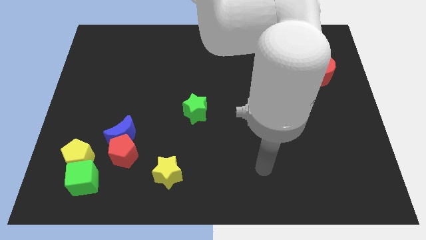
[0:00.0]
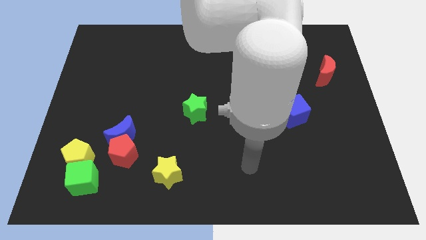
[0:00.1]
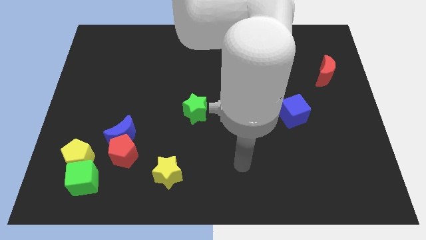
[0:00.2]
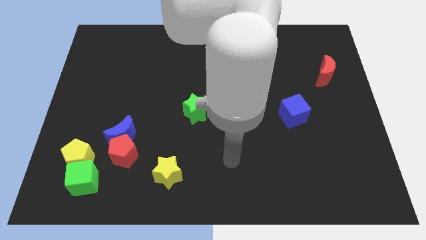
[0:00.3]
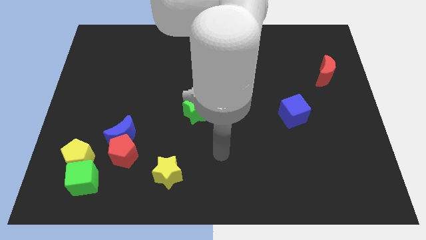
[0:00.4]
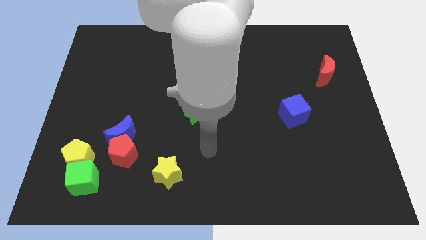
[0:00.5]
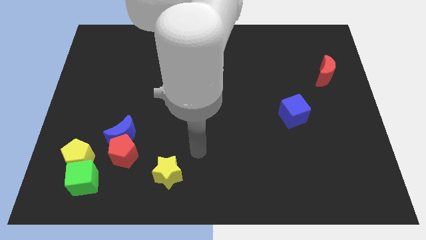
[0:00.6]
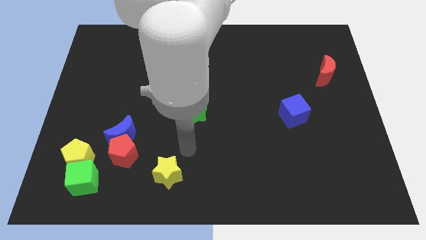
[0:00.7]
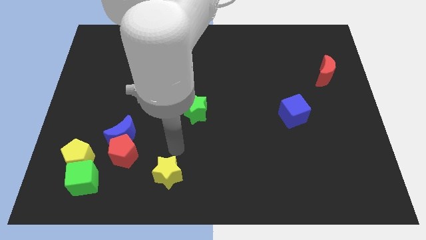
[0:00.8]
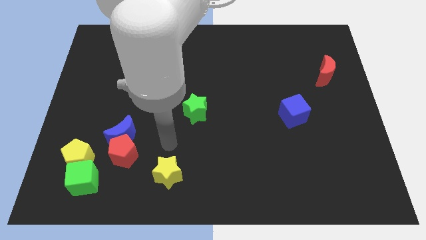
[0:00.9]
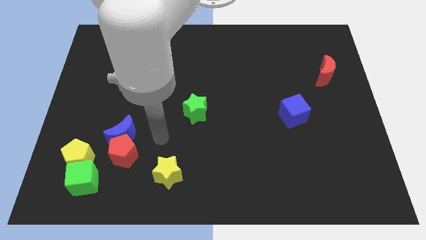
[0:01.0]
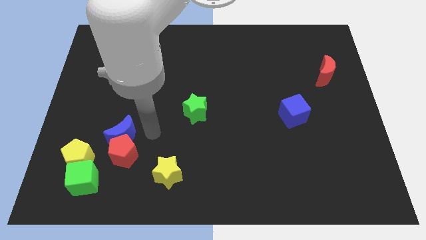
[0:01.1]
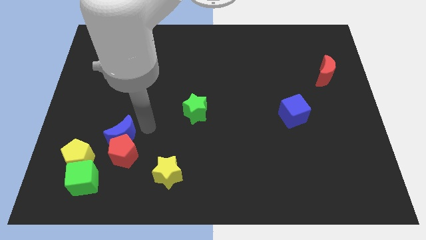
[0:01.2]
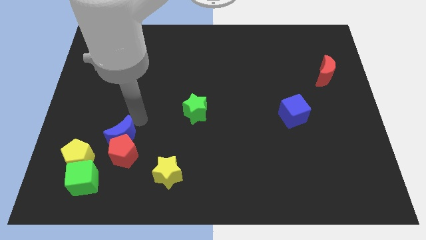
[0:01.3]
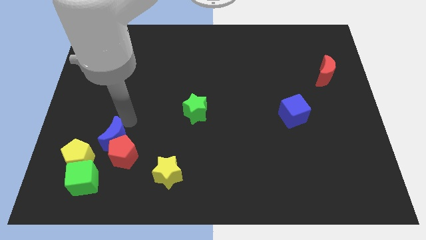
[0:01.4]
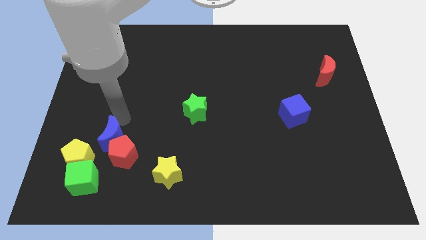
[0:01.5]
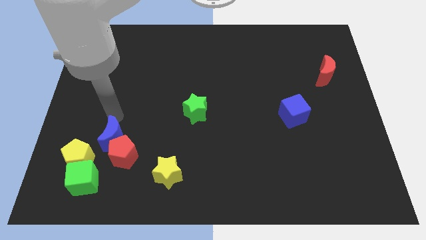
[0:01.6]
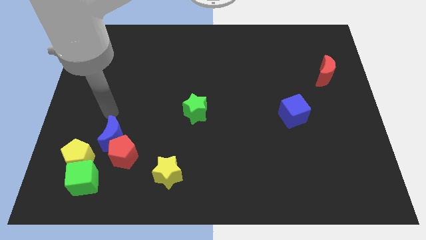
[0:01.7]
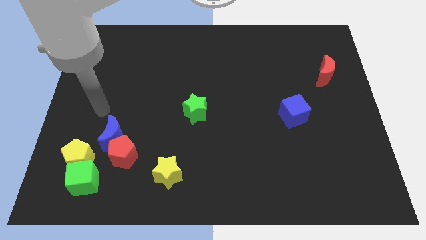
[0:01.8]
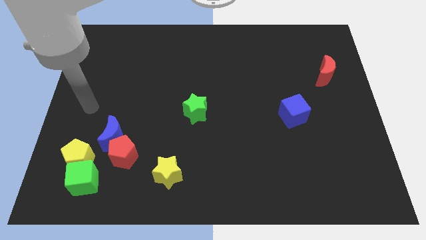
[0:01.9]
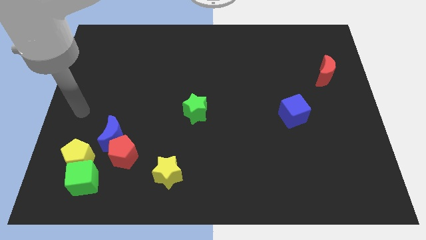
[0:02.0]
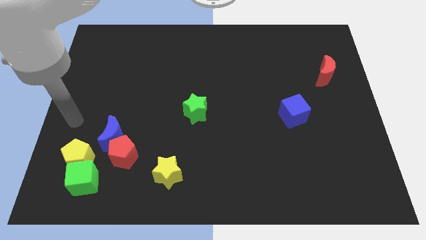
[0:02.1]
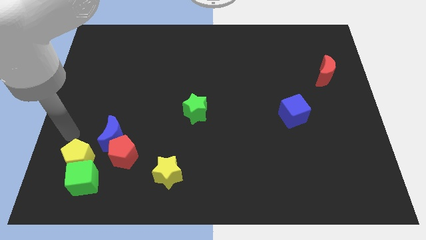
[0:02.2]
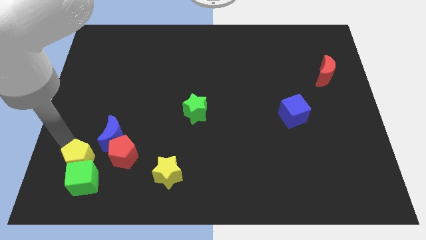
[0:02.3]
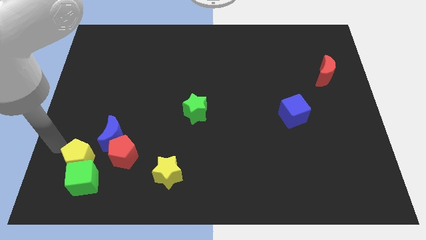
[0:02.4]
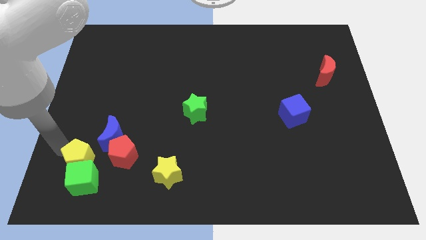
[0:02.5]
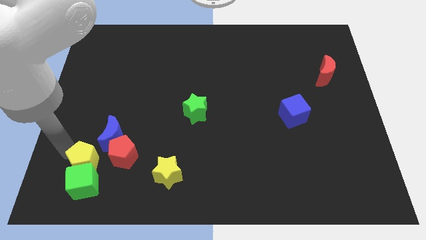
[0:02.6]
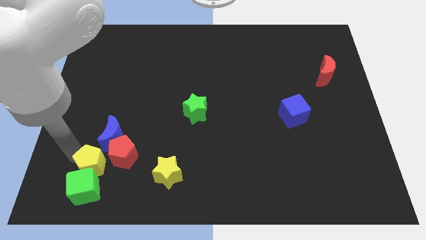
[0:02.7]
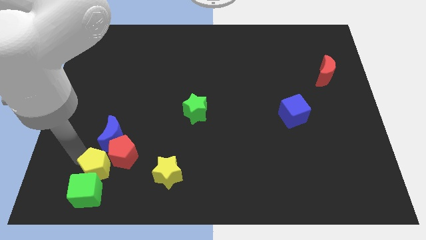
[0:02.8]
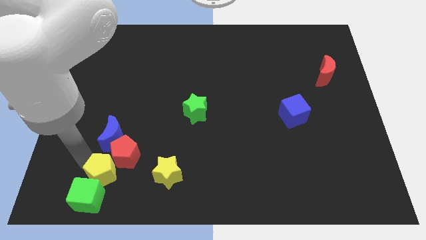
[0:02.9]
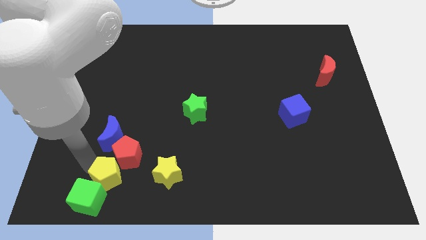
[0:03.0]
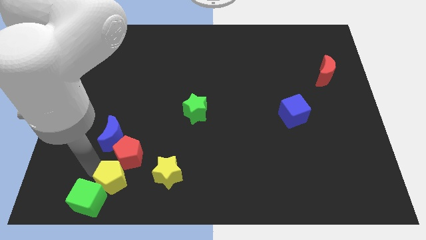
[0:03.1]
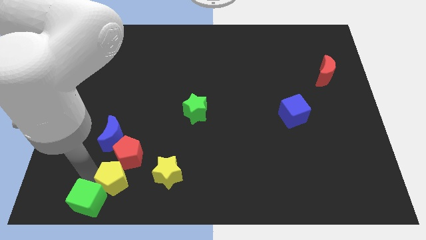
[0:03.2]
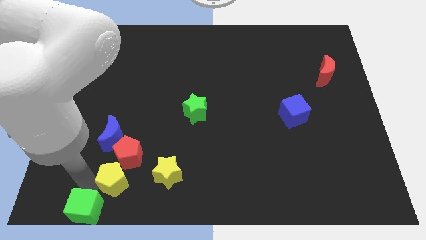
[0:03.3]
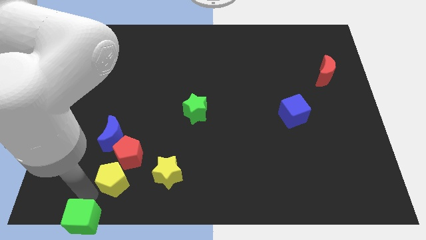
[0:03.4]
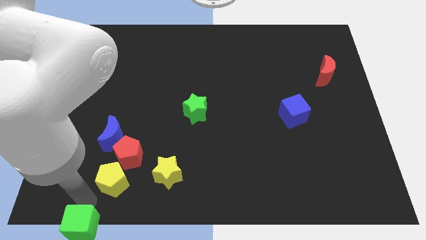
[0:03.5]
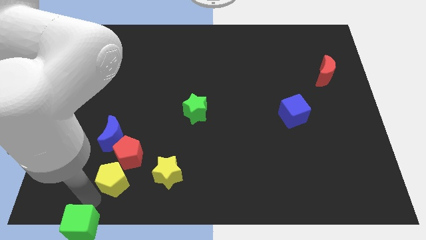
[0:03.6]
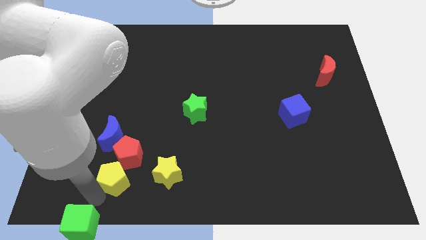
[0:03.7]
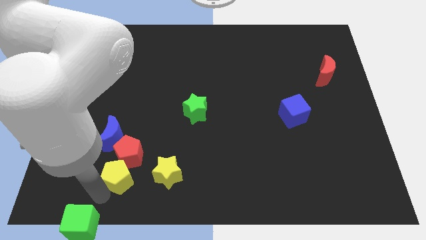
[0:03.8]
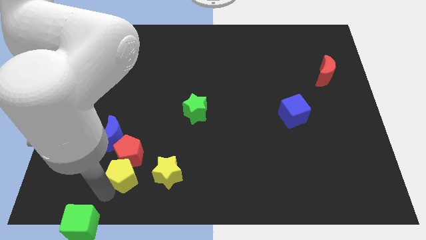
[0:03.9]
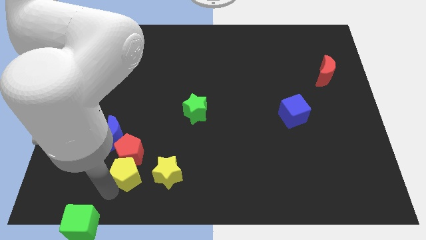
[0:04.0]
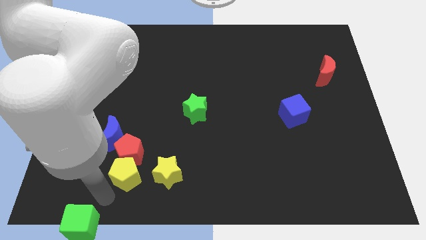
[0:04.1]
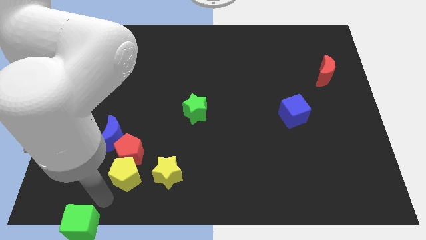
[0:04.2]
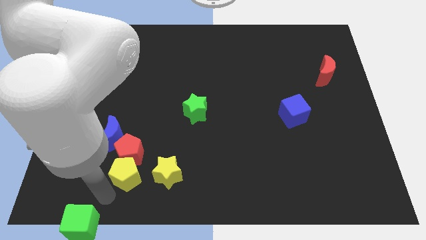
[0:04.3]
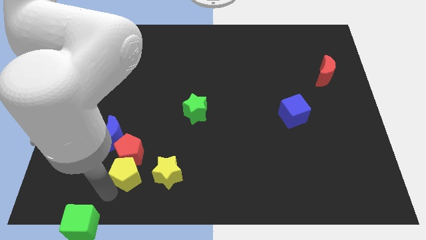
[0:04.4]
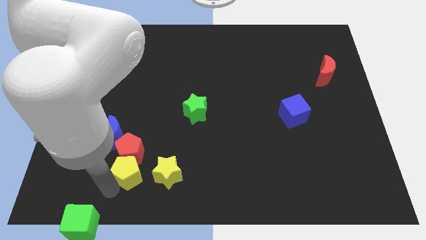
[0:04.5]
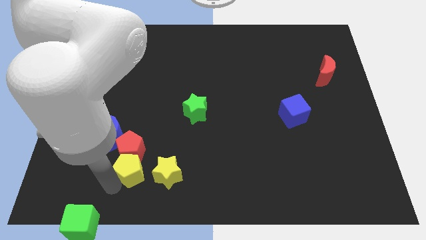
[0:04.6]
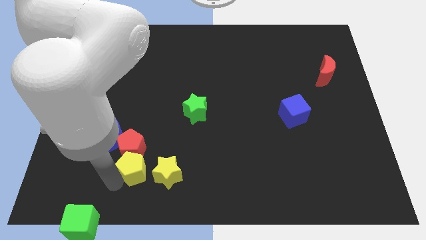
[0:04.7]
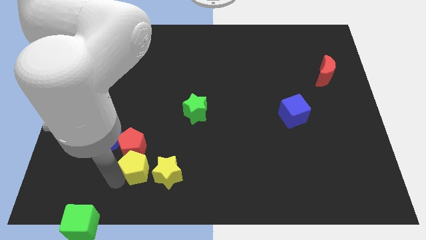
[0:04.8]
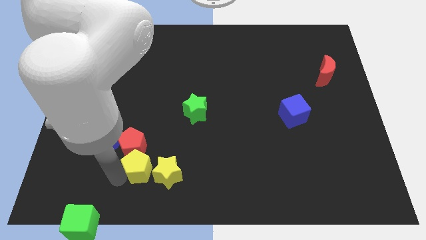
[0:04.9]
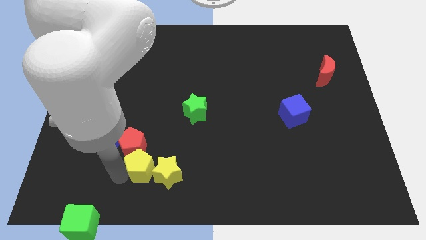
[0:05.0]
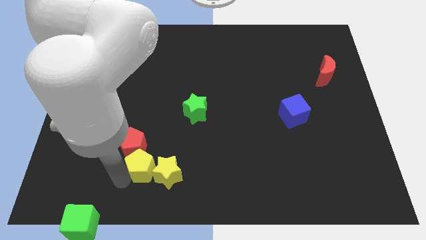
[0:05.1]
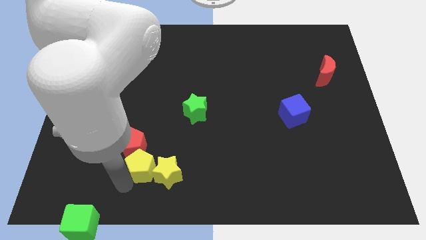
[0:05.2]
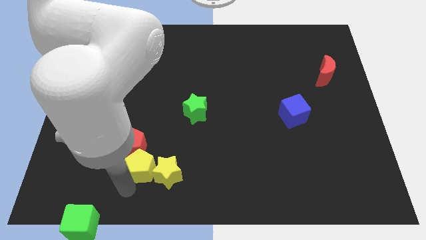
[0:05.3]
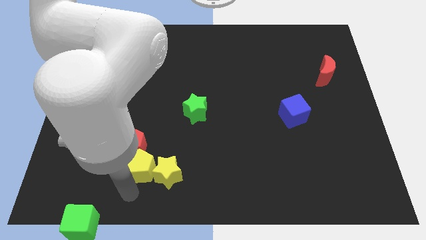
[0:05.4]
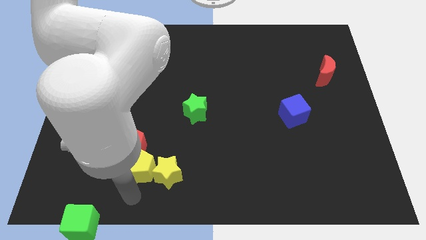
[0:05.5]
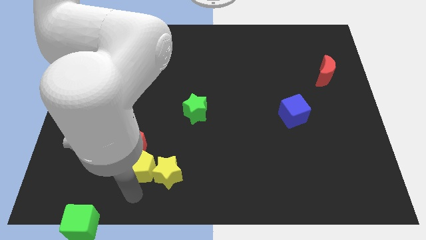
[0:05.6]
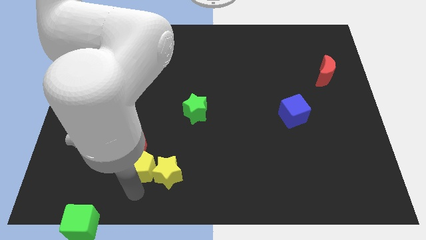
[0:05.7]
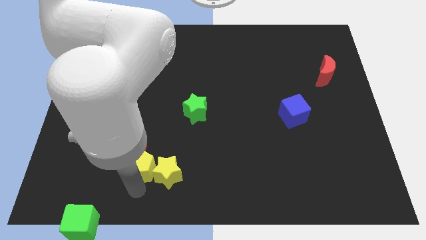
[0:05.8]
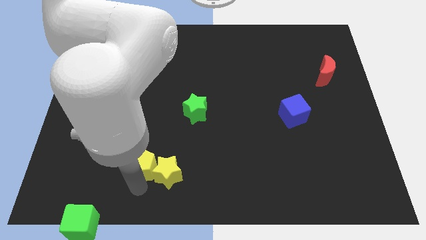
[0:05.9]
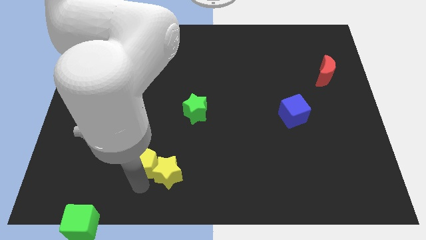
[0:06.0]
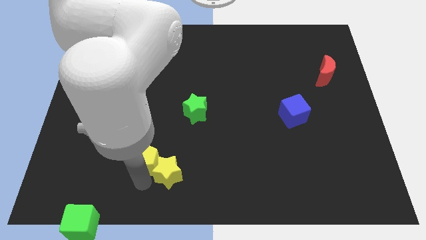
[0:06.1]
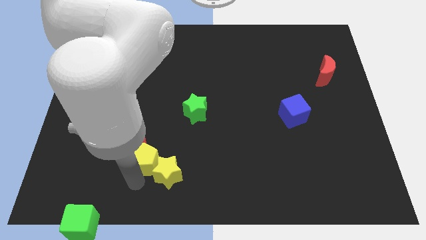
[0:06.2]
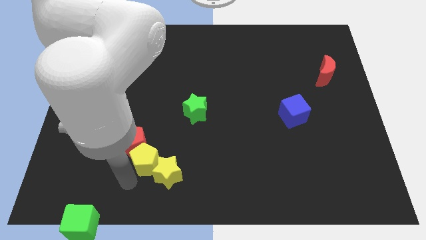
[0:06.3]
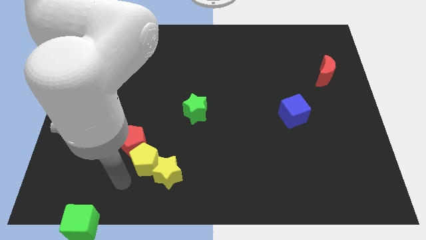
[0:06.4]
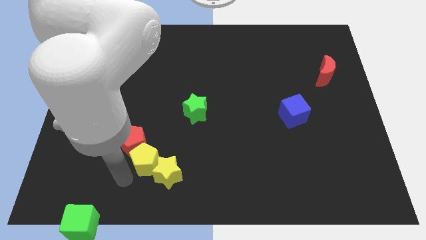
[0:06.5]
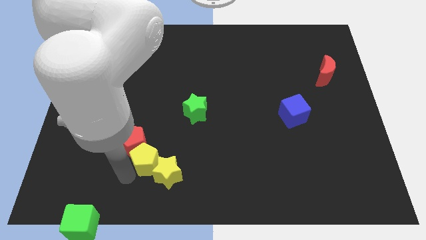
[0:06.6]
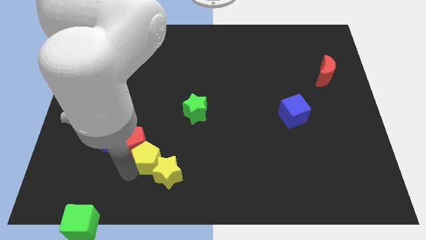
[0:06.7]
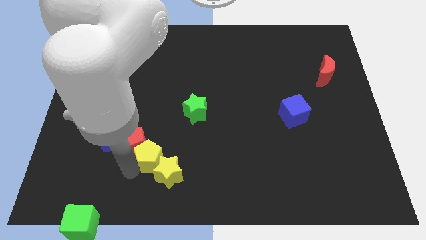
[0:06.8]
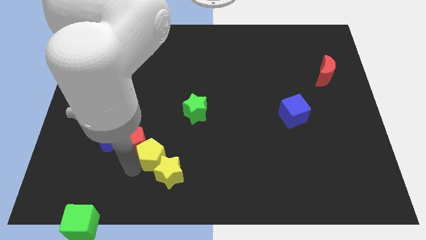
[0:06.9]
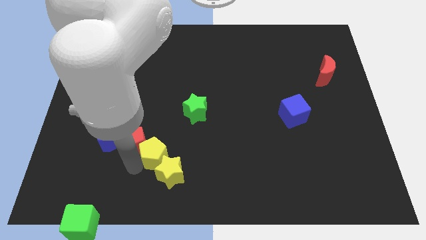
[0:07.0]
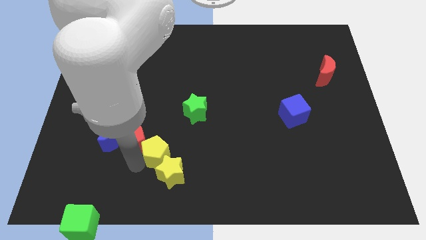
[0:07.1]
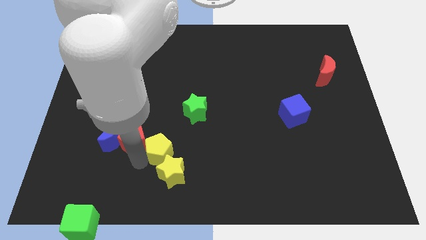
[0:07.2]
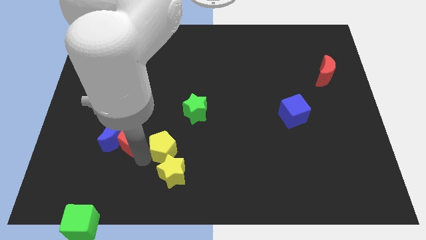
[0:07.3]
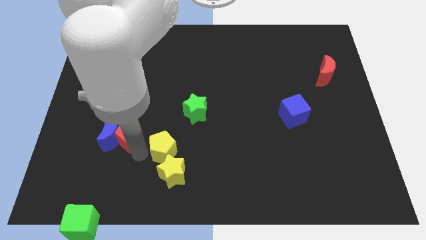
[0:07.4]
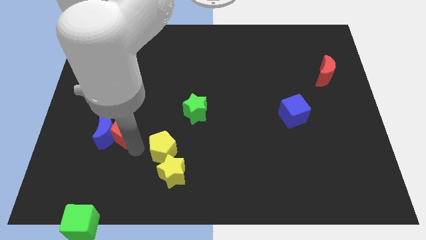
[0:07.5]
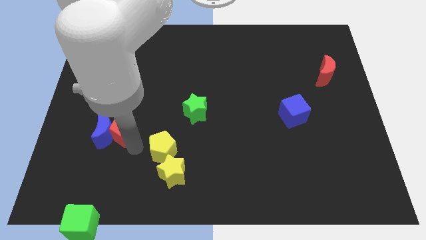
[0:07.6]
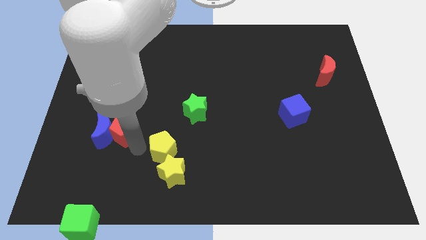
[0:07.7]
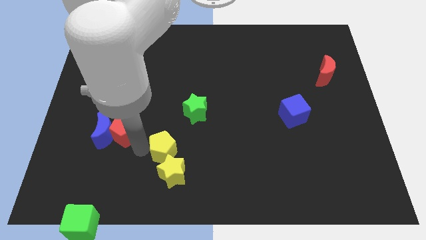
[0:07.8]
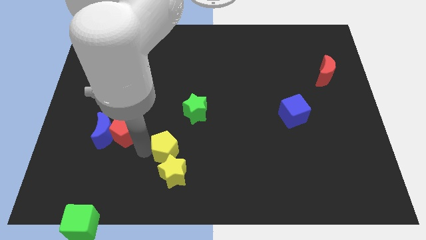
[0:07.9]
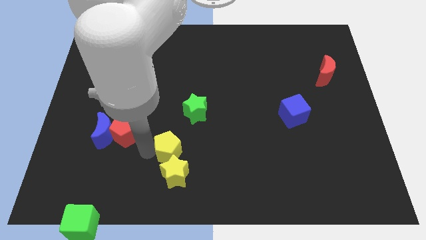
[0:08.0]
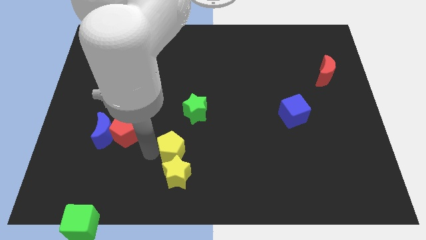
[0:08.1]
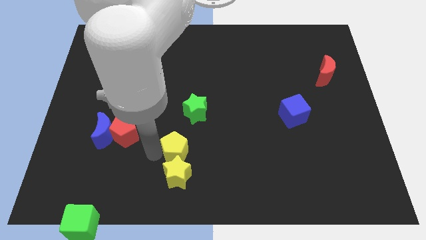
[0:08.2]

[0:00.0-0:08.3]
move the yellow pentagon to the top right of the yellow star
